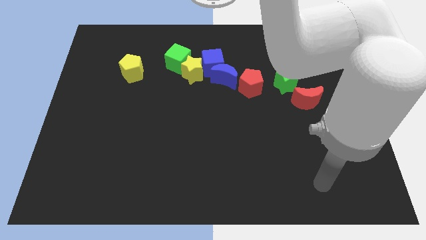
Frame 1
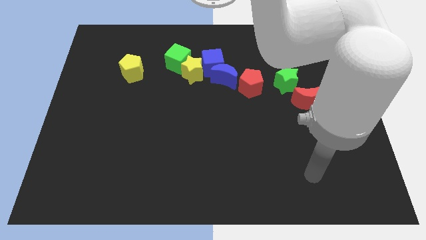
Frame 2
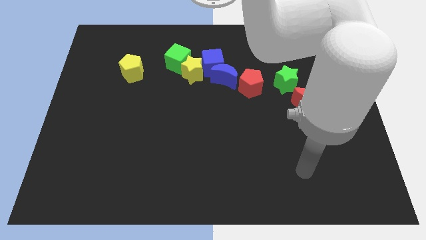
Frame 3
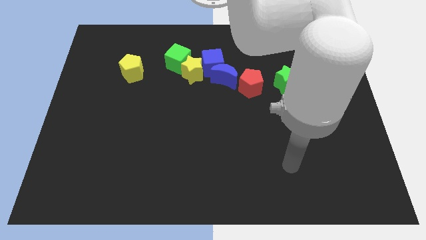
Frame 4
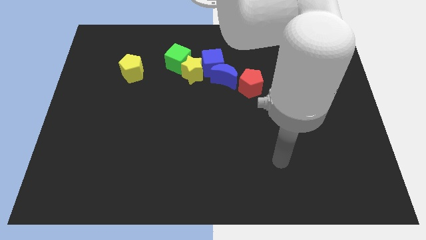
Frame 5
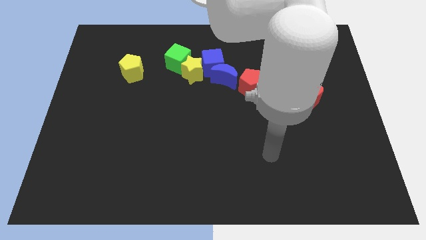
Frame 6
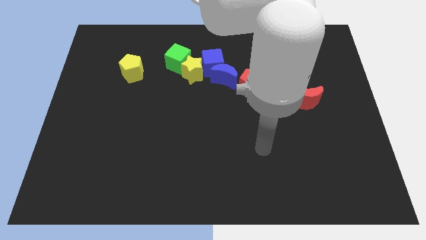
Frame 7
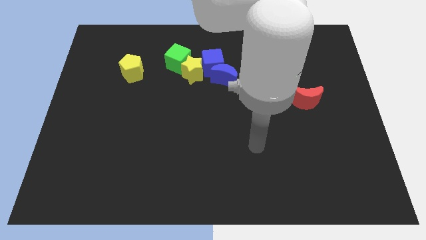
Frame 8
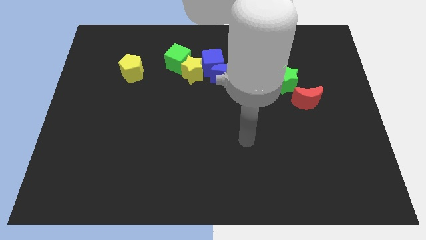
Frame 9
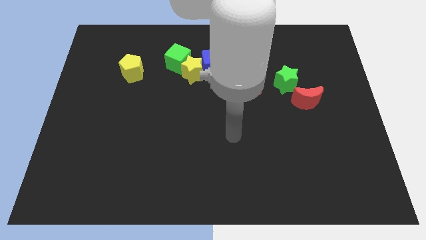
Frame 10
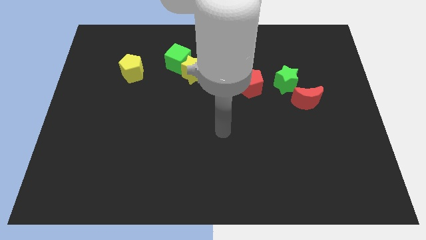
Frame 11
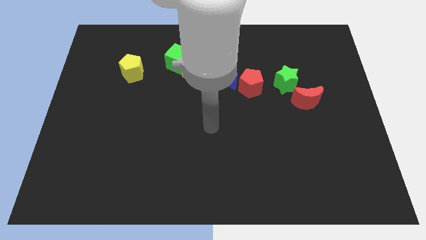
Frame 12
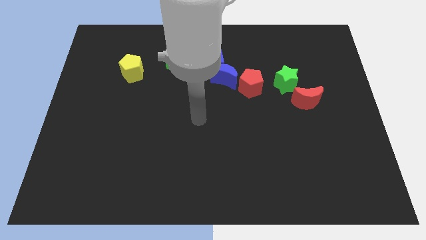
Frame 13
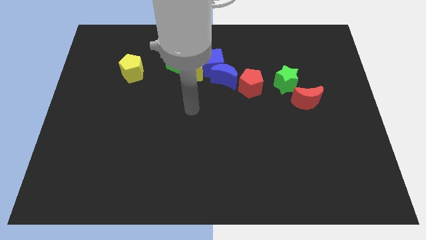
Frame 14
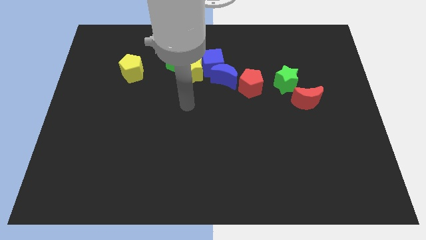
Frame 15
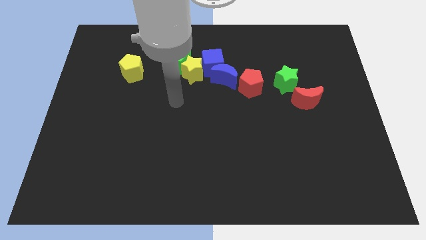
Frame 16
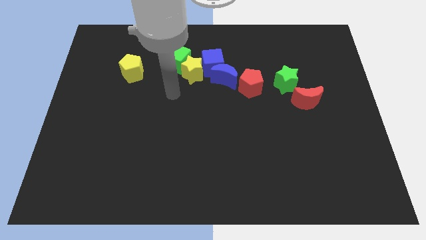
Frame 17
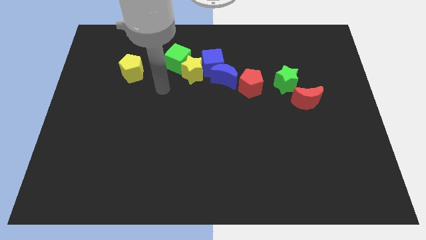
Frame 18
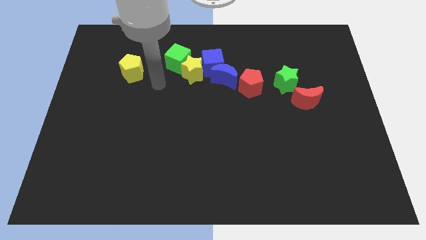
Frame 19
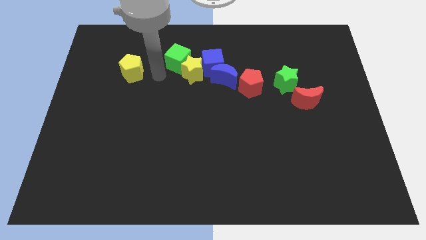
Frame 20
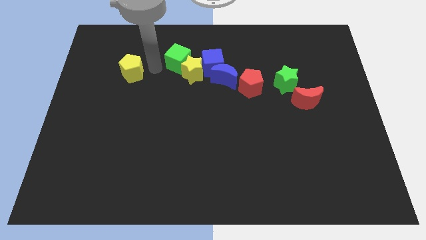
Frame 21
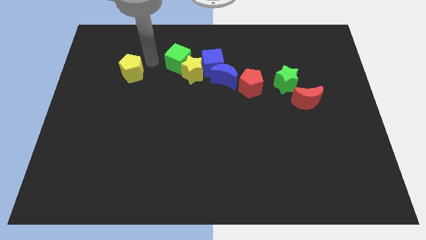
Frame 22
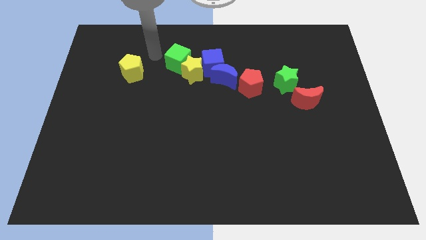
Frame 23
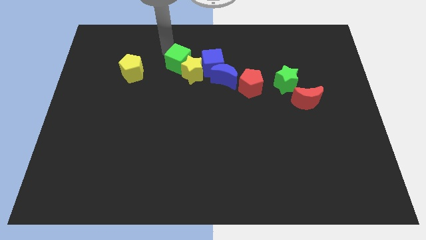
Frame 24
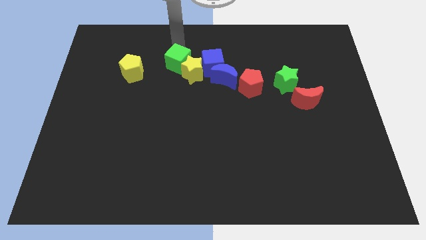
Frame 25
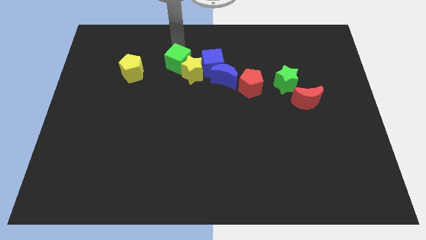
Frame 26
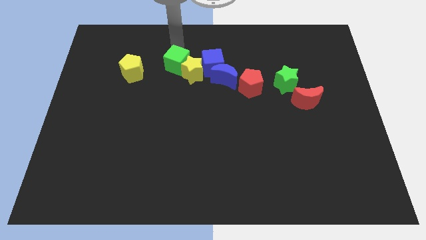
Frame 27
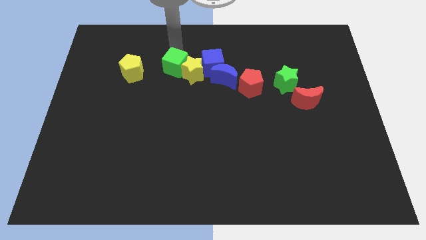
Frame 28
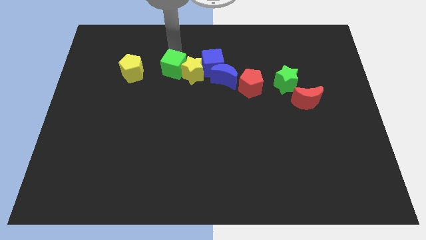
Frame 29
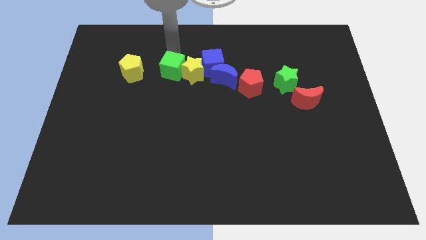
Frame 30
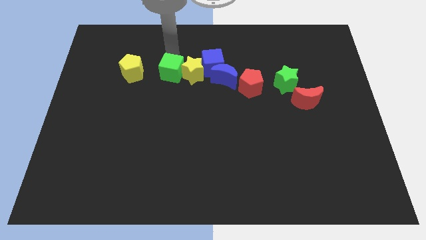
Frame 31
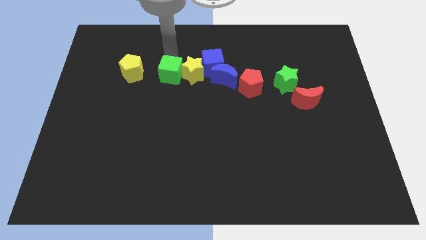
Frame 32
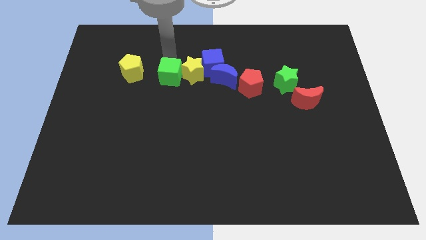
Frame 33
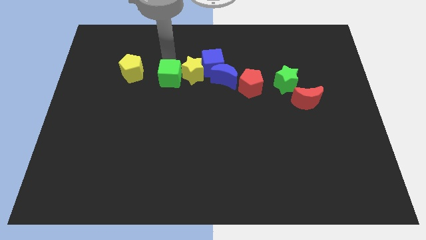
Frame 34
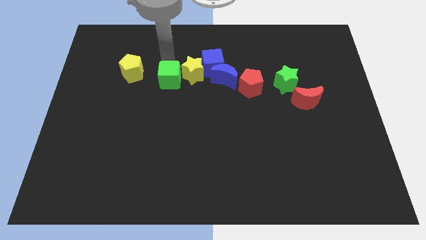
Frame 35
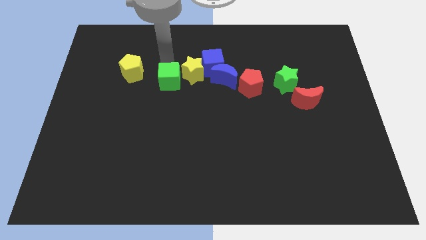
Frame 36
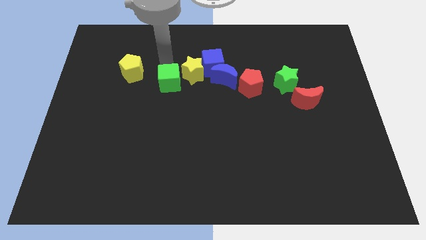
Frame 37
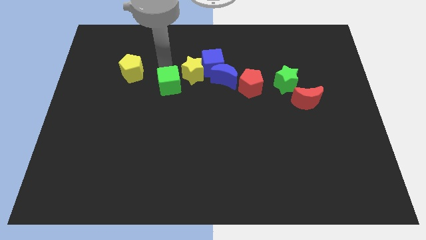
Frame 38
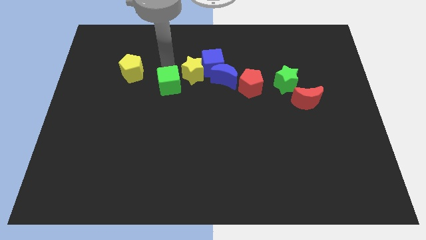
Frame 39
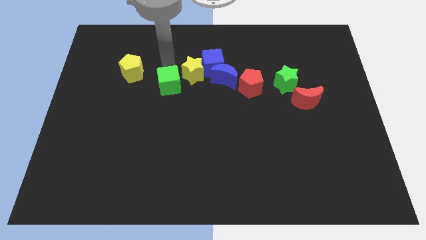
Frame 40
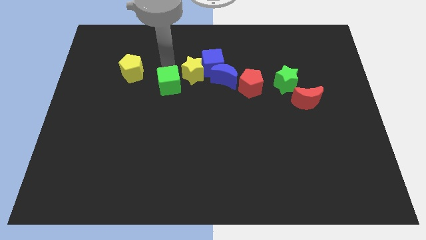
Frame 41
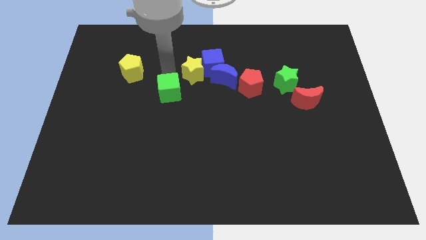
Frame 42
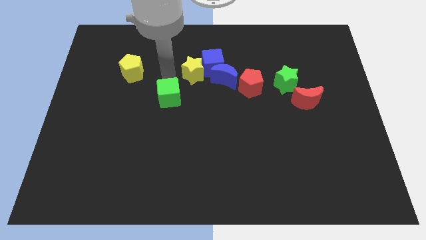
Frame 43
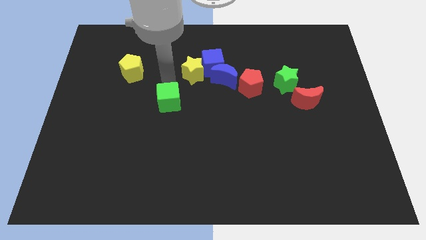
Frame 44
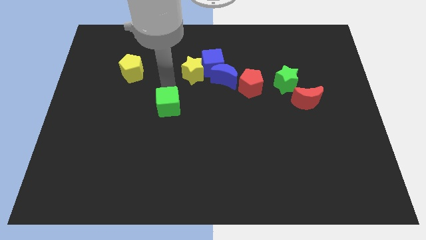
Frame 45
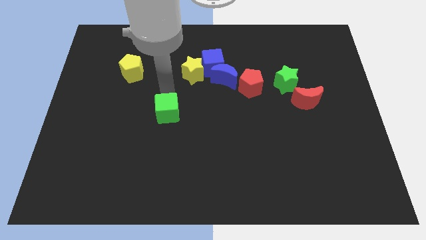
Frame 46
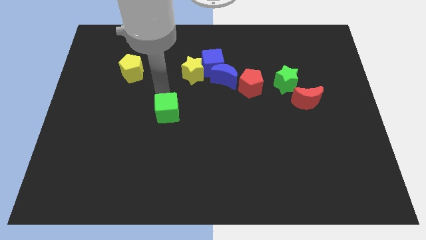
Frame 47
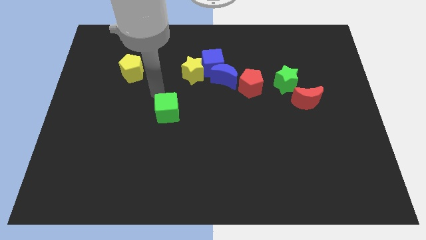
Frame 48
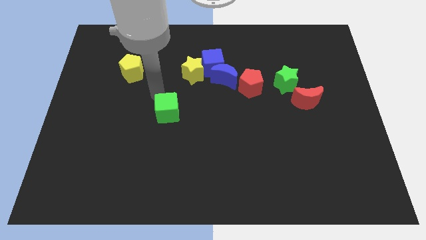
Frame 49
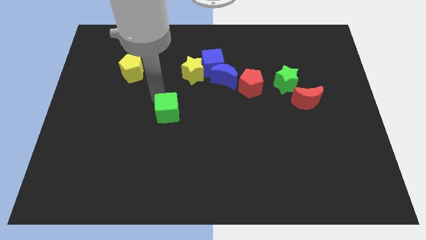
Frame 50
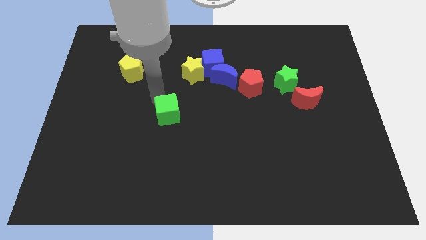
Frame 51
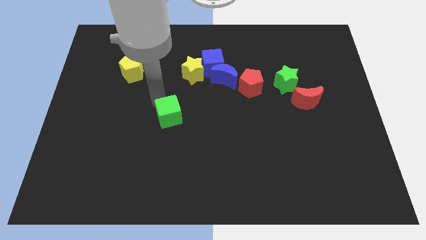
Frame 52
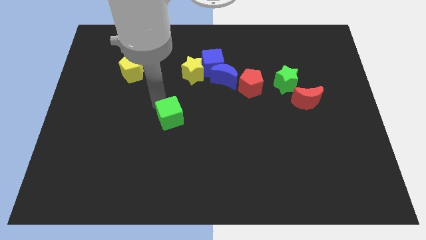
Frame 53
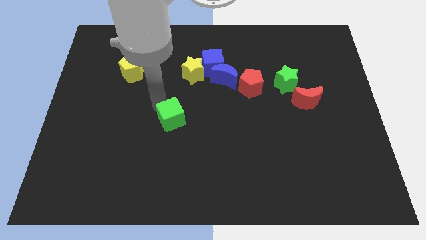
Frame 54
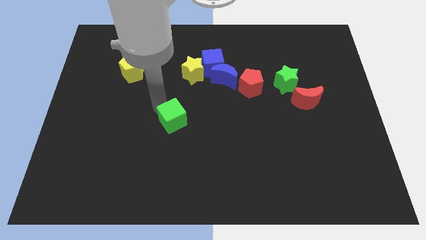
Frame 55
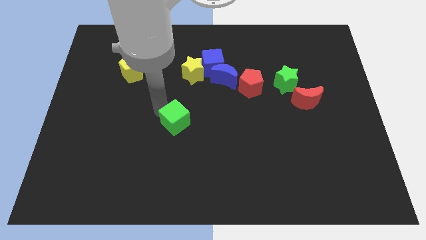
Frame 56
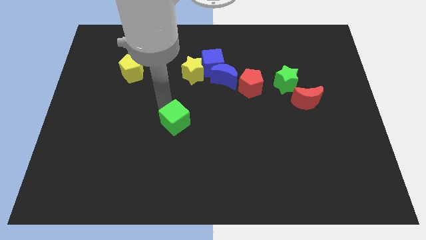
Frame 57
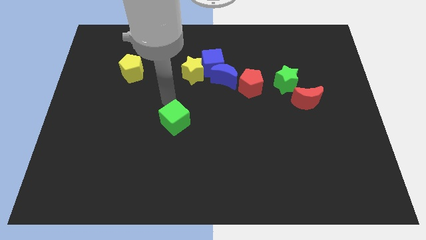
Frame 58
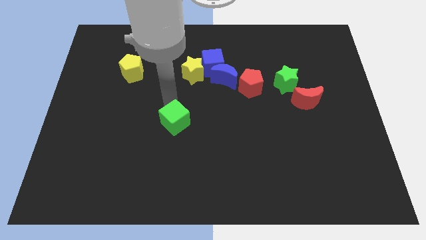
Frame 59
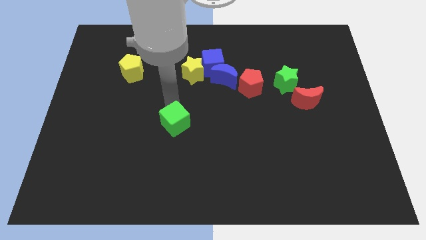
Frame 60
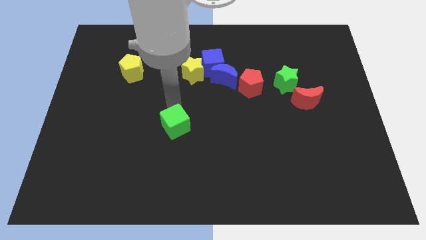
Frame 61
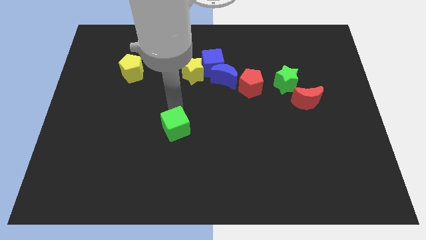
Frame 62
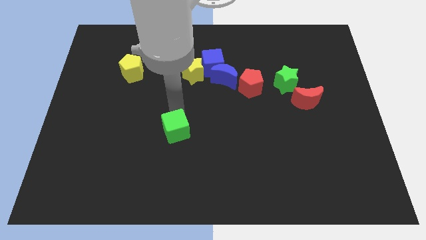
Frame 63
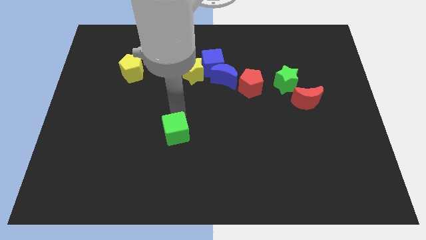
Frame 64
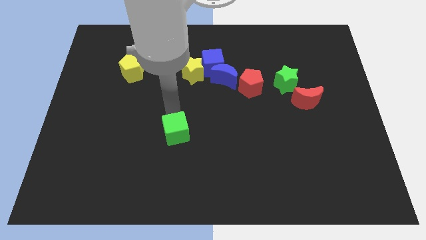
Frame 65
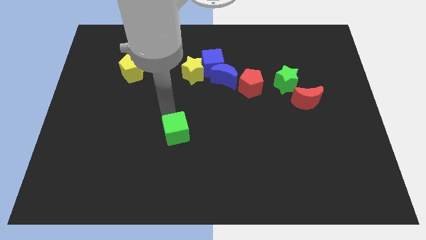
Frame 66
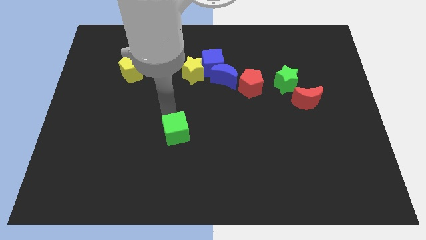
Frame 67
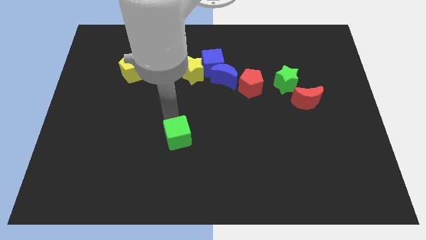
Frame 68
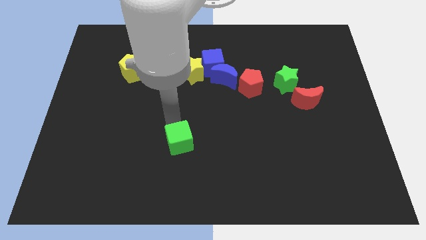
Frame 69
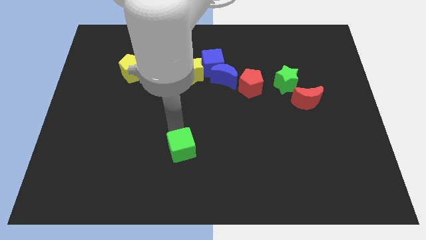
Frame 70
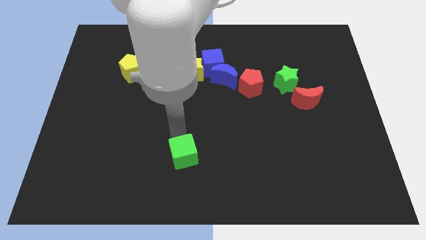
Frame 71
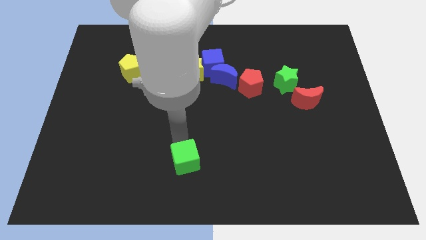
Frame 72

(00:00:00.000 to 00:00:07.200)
slide the green cube to the bottom side
